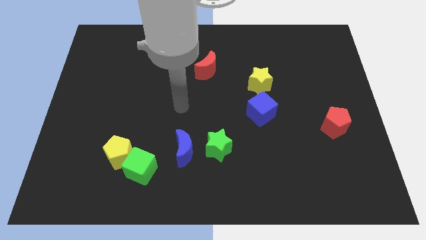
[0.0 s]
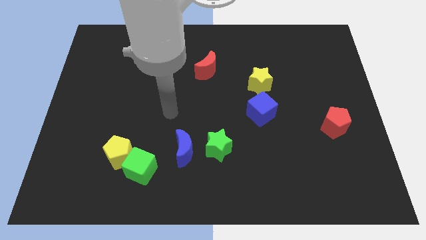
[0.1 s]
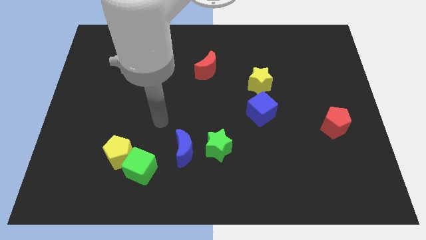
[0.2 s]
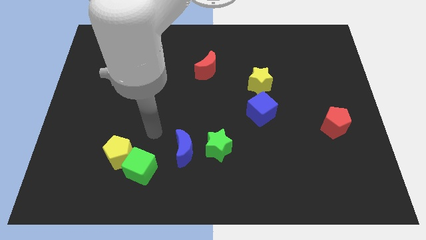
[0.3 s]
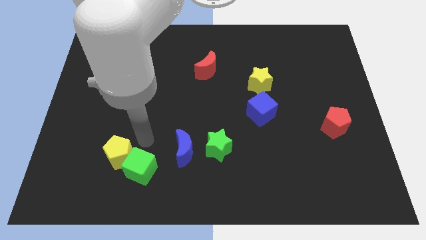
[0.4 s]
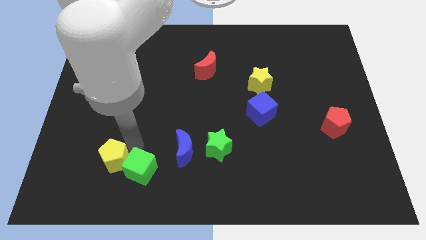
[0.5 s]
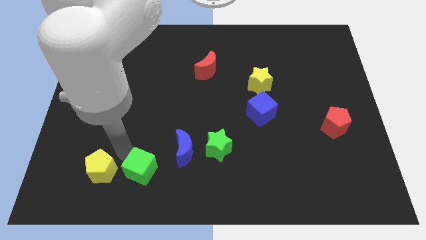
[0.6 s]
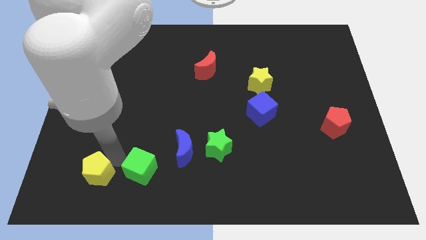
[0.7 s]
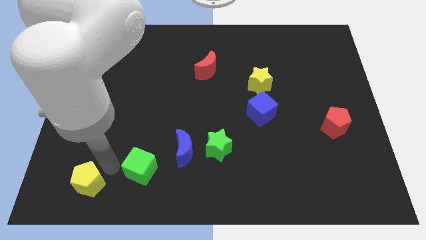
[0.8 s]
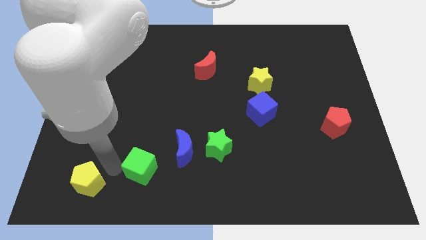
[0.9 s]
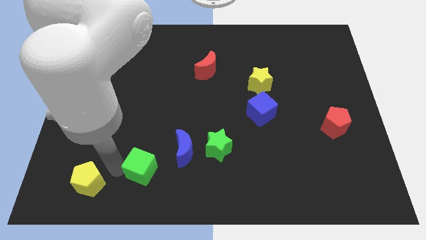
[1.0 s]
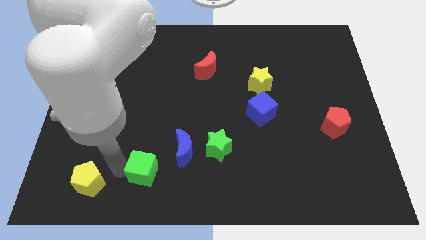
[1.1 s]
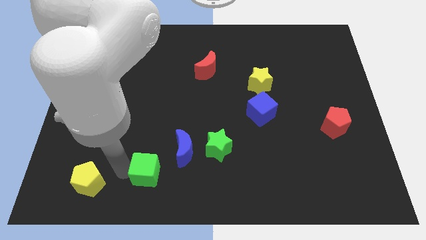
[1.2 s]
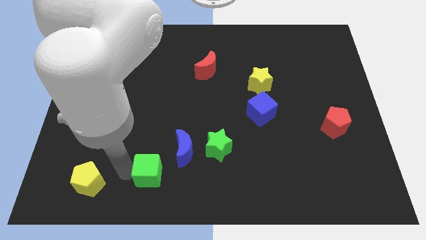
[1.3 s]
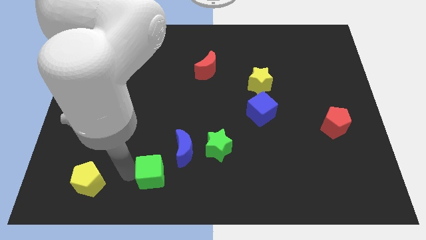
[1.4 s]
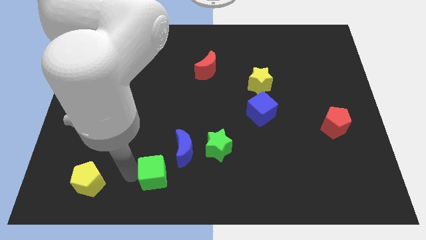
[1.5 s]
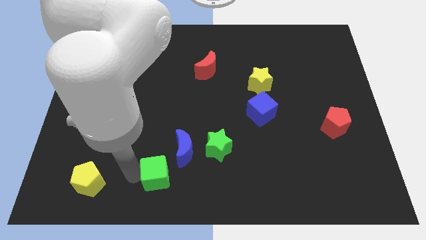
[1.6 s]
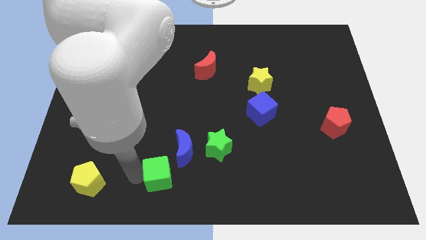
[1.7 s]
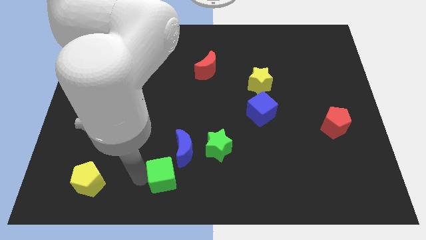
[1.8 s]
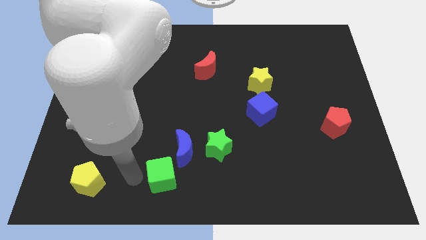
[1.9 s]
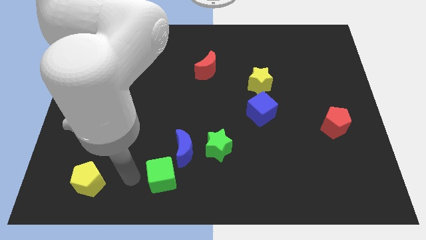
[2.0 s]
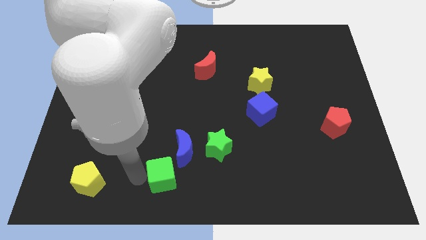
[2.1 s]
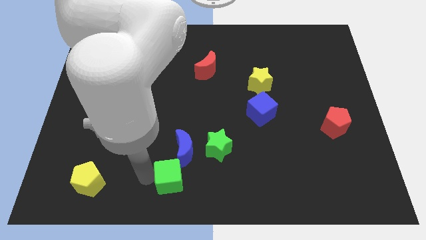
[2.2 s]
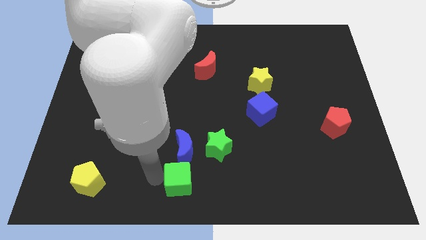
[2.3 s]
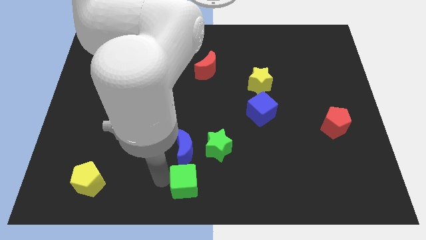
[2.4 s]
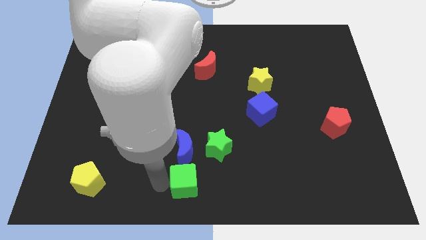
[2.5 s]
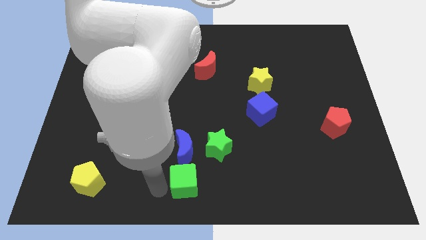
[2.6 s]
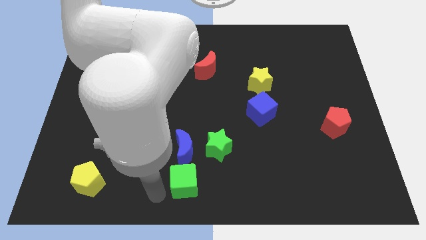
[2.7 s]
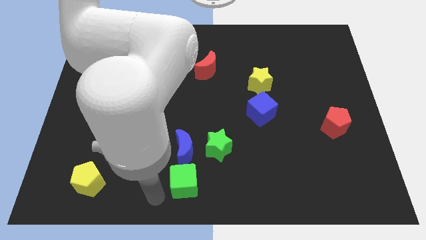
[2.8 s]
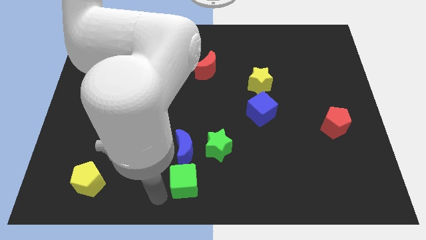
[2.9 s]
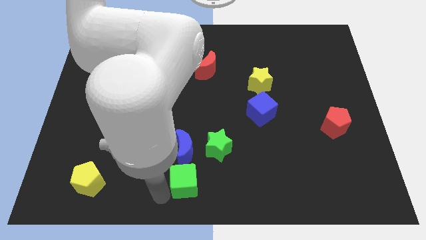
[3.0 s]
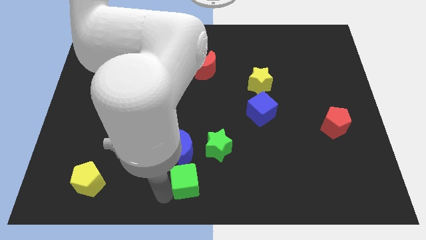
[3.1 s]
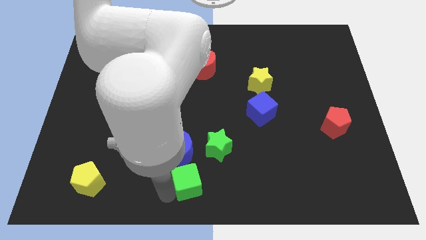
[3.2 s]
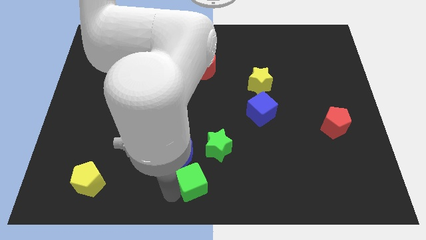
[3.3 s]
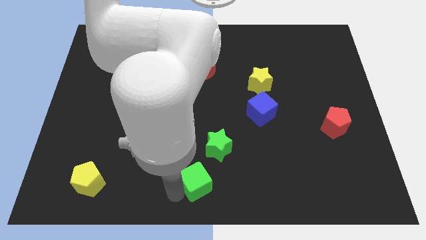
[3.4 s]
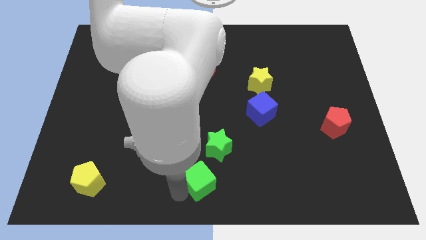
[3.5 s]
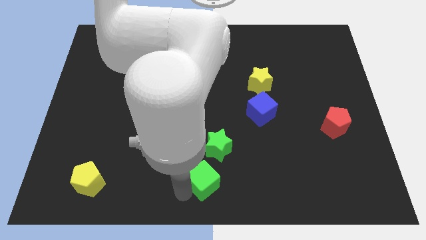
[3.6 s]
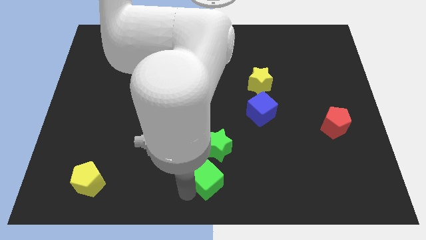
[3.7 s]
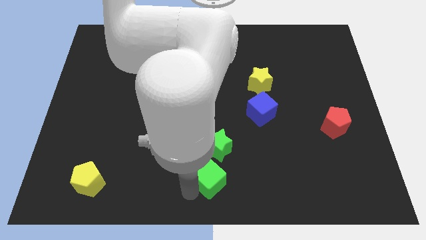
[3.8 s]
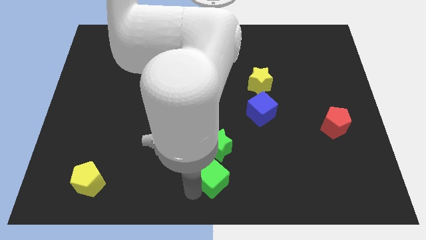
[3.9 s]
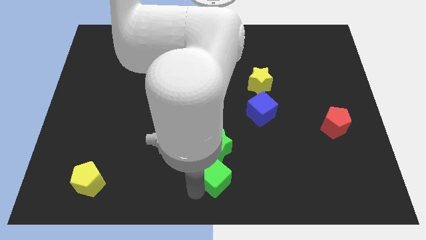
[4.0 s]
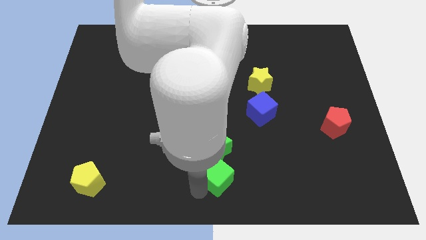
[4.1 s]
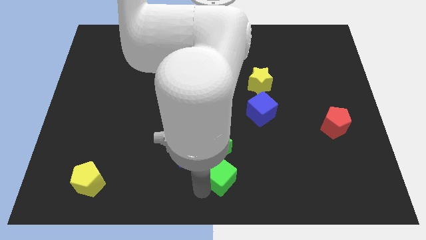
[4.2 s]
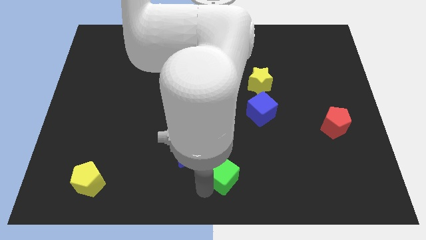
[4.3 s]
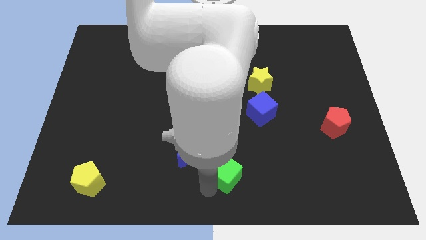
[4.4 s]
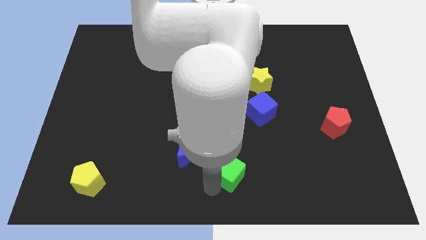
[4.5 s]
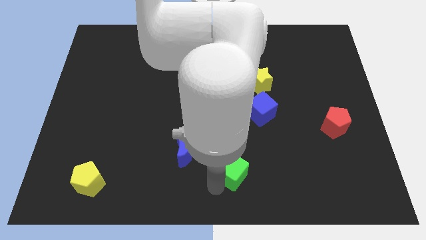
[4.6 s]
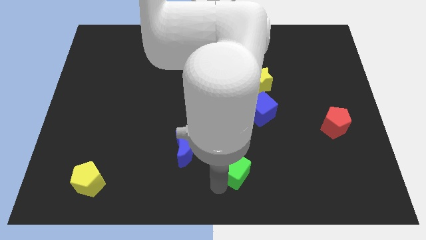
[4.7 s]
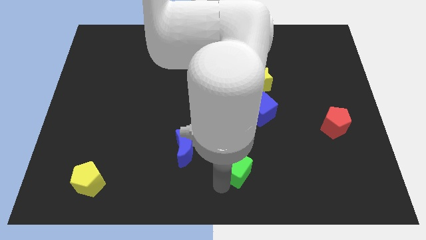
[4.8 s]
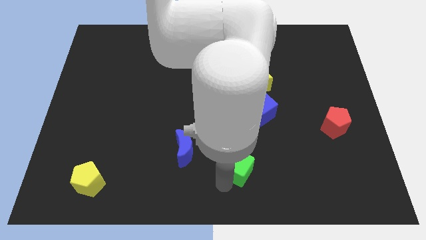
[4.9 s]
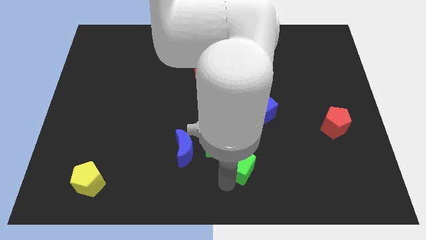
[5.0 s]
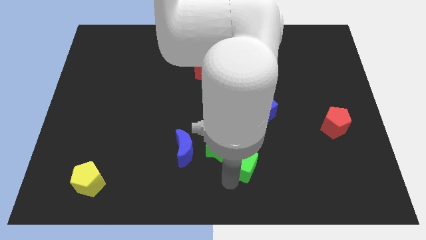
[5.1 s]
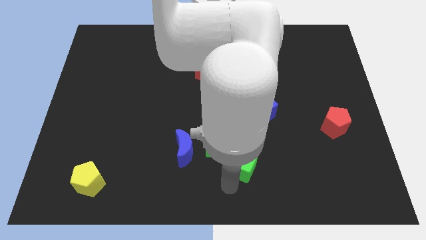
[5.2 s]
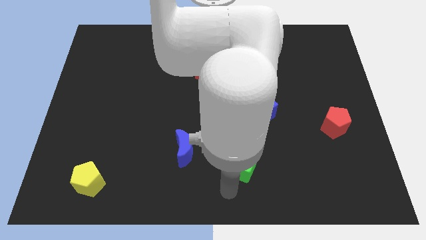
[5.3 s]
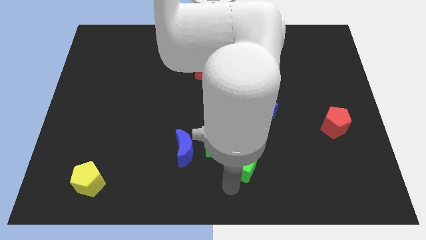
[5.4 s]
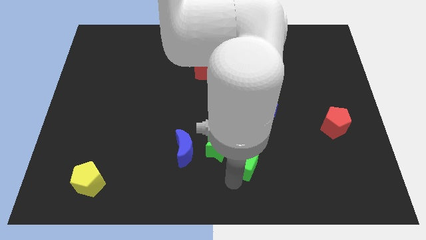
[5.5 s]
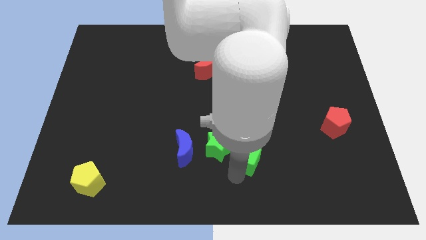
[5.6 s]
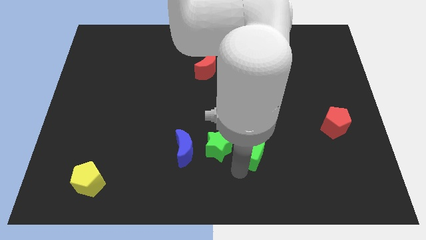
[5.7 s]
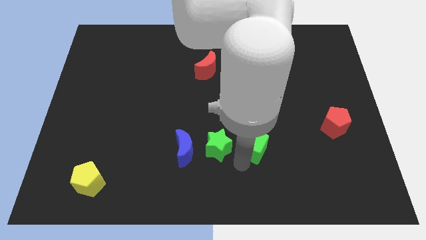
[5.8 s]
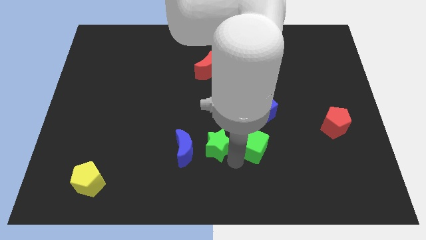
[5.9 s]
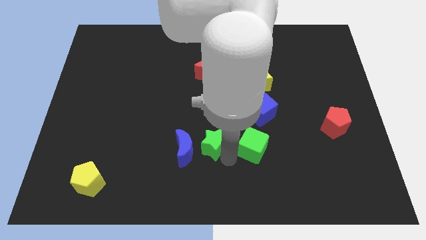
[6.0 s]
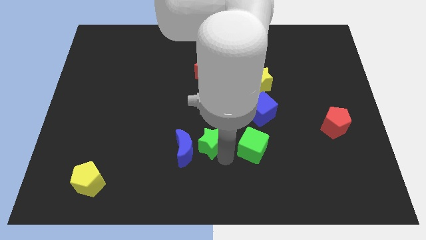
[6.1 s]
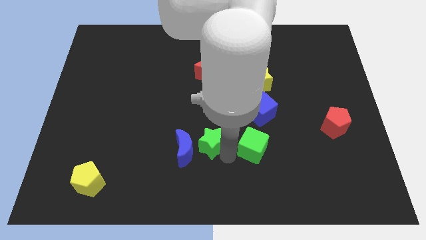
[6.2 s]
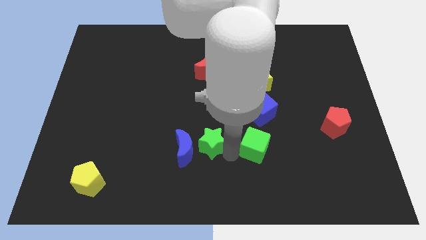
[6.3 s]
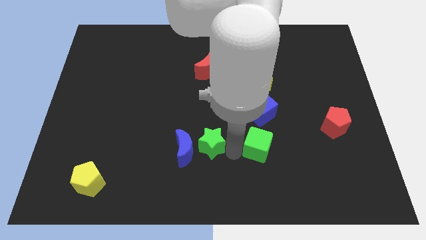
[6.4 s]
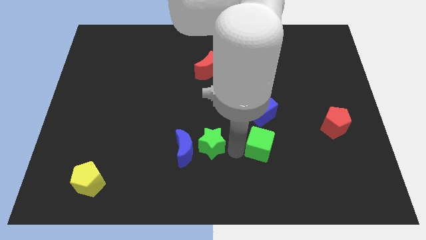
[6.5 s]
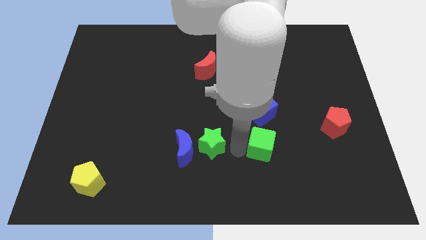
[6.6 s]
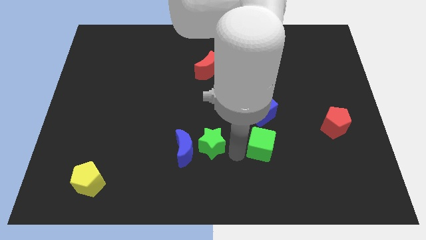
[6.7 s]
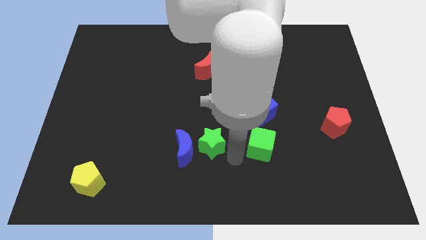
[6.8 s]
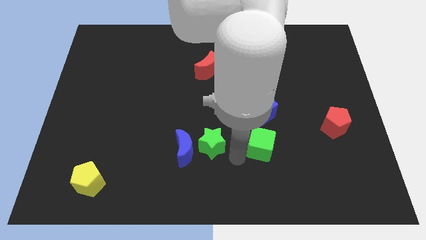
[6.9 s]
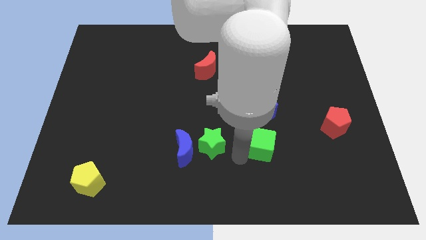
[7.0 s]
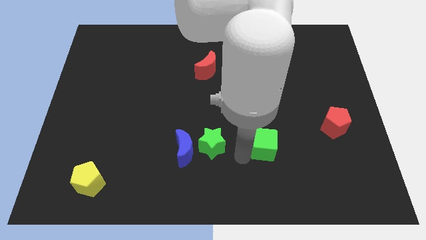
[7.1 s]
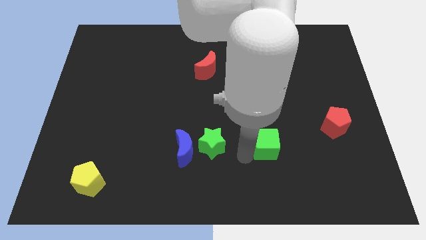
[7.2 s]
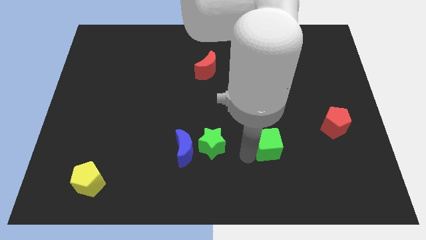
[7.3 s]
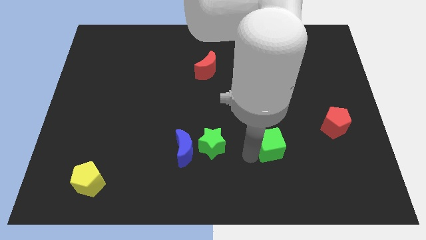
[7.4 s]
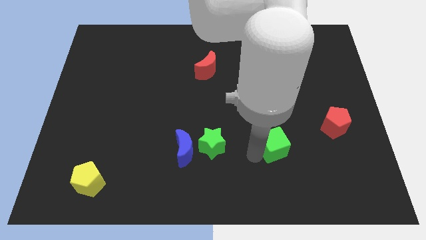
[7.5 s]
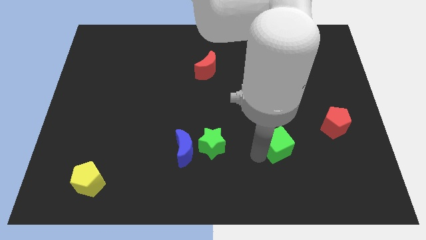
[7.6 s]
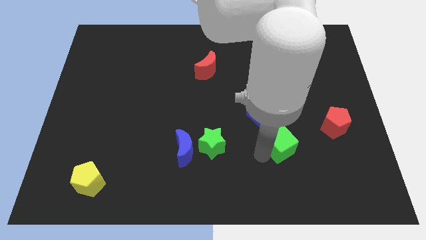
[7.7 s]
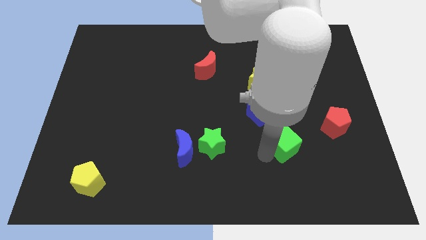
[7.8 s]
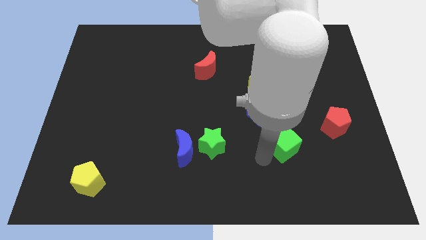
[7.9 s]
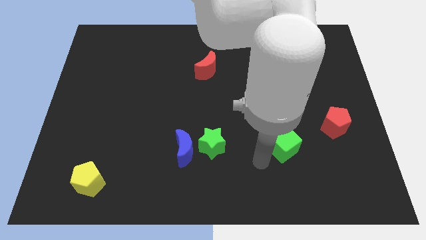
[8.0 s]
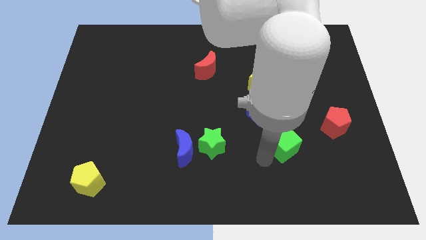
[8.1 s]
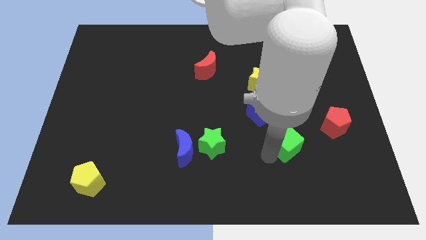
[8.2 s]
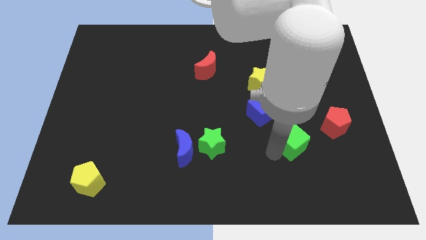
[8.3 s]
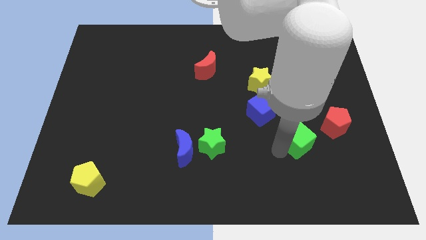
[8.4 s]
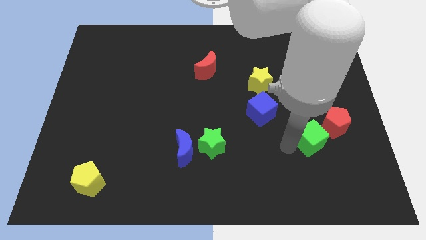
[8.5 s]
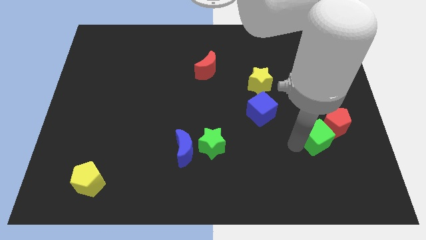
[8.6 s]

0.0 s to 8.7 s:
push the green cube to the red pentagon
